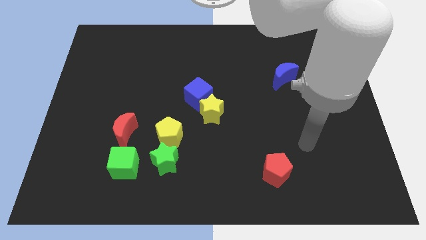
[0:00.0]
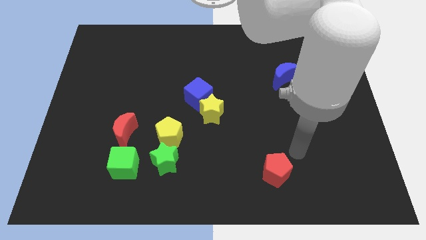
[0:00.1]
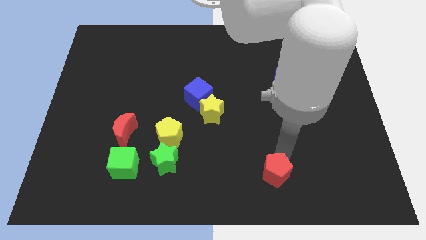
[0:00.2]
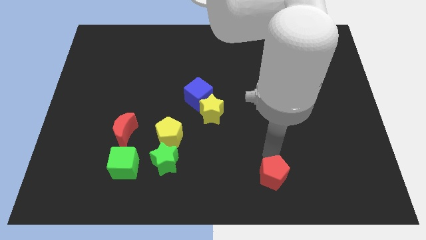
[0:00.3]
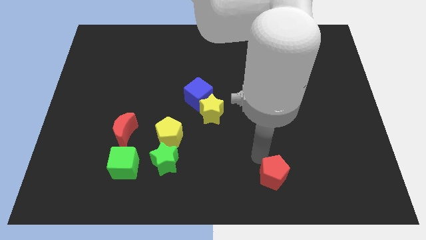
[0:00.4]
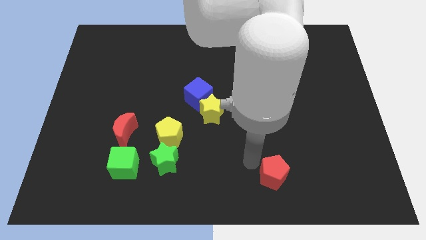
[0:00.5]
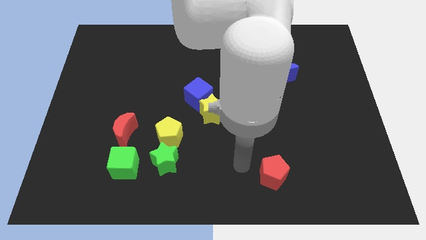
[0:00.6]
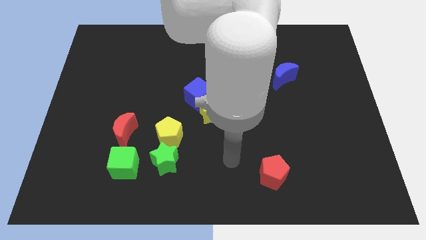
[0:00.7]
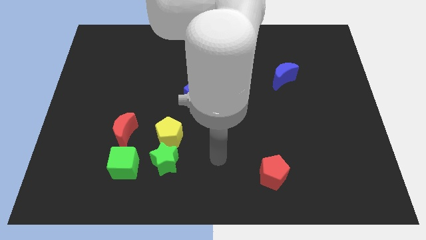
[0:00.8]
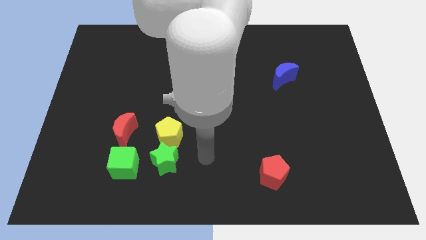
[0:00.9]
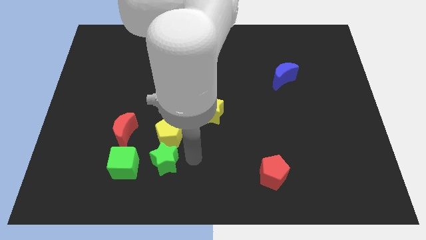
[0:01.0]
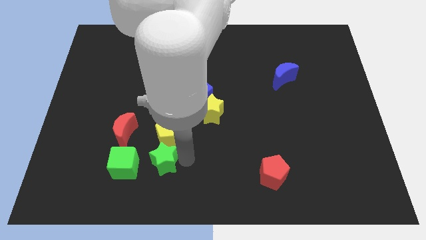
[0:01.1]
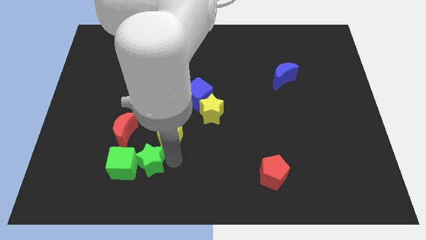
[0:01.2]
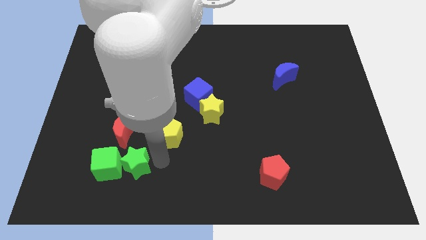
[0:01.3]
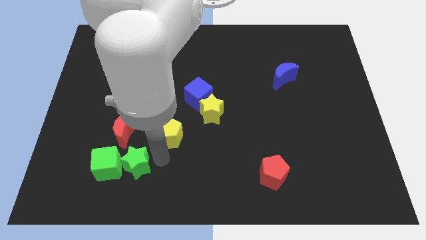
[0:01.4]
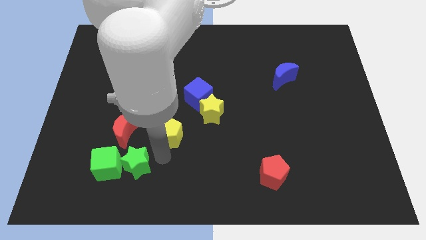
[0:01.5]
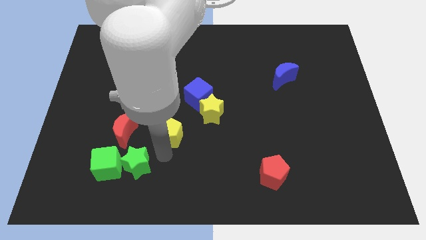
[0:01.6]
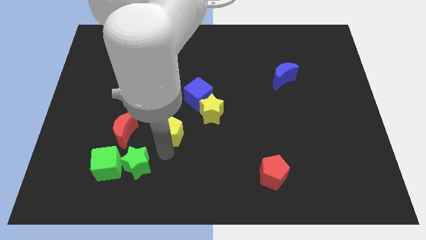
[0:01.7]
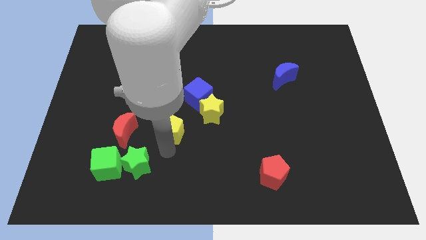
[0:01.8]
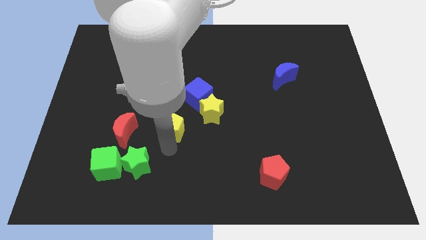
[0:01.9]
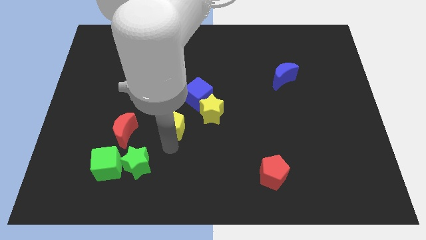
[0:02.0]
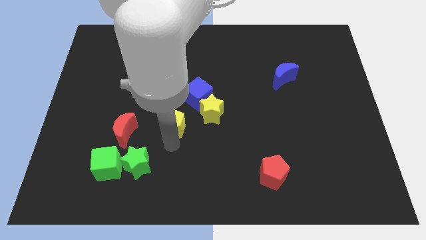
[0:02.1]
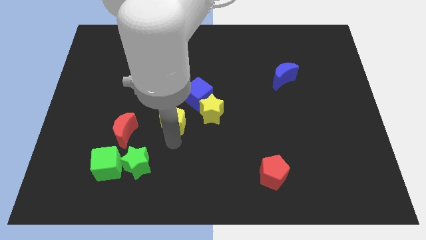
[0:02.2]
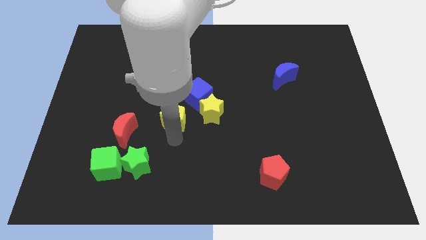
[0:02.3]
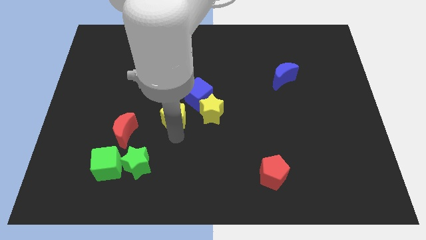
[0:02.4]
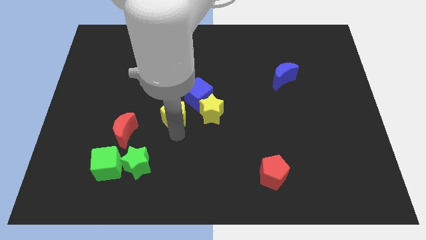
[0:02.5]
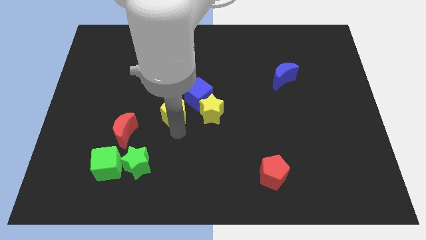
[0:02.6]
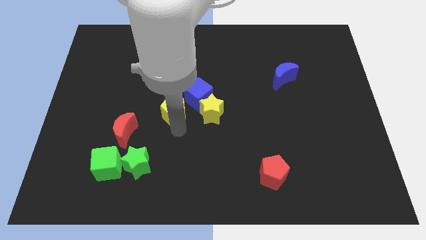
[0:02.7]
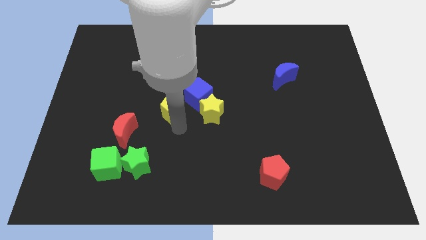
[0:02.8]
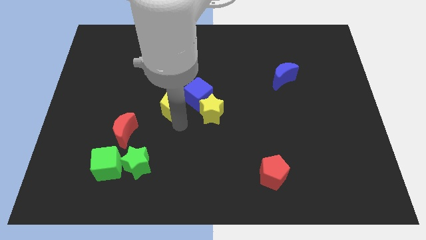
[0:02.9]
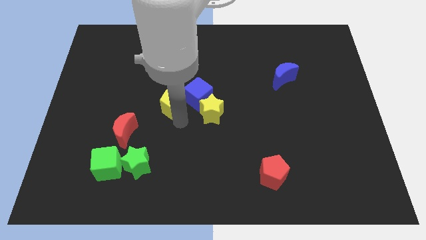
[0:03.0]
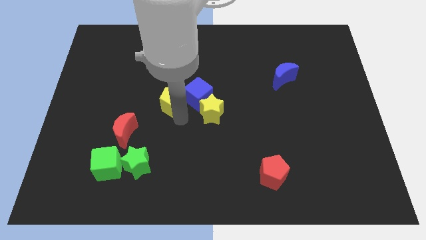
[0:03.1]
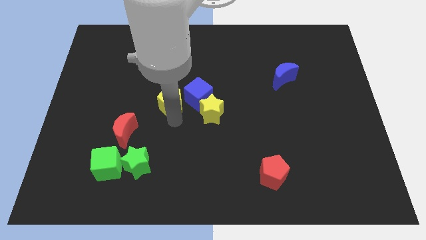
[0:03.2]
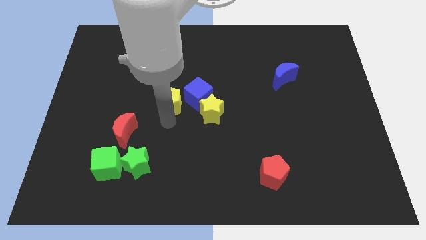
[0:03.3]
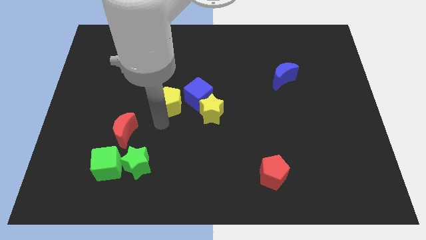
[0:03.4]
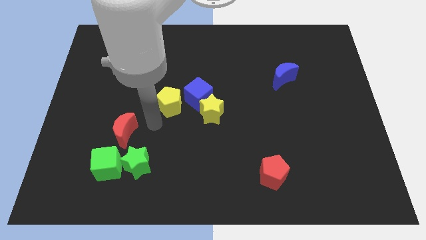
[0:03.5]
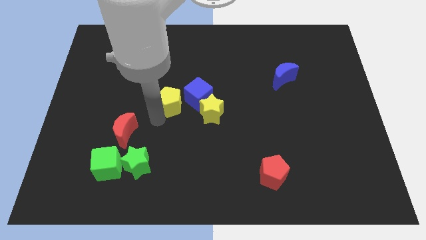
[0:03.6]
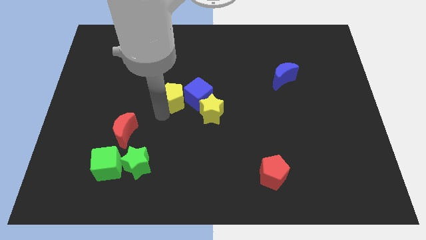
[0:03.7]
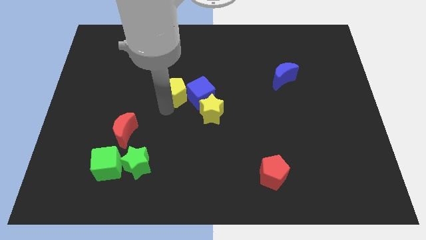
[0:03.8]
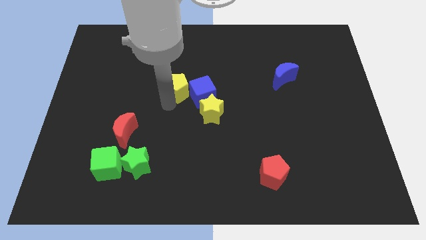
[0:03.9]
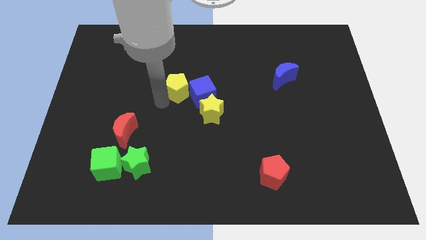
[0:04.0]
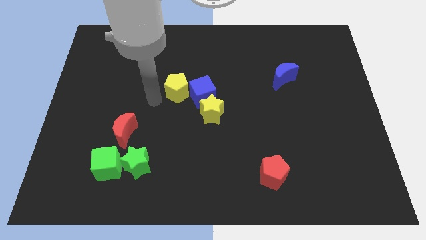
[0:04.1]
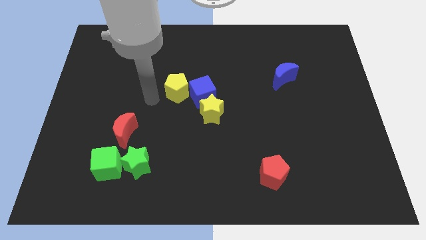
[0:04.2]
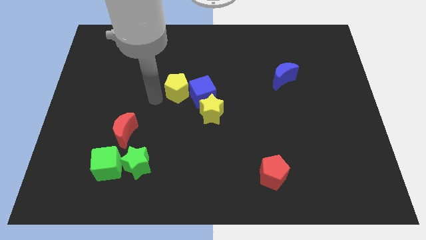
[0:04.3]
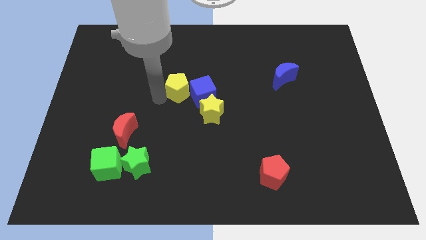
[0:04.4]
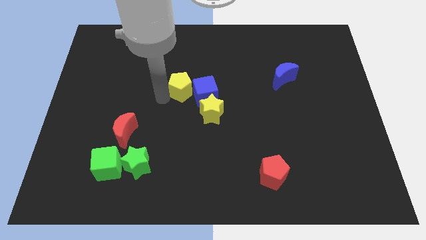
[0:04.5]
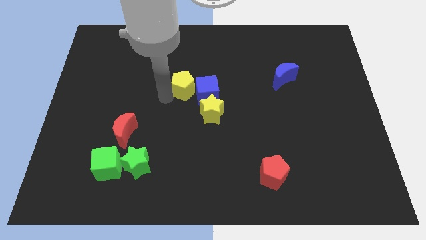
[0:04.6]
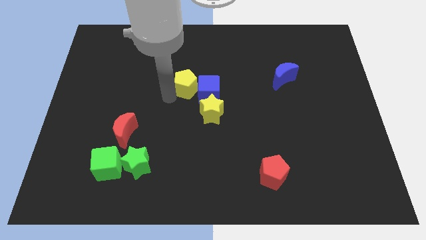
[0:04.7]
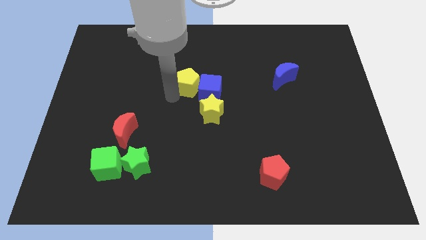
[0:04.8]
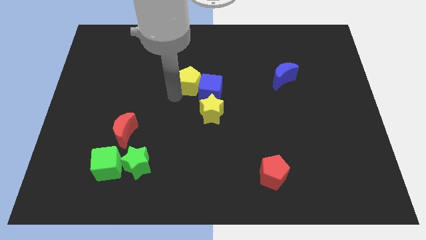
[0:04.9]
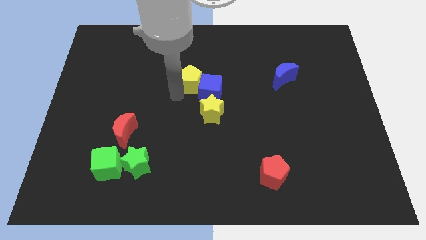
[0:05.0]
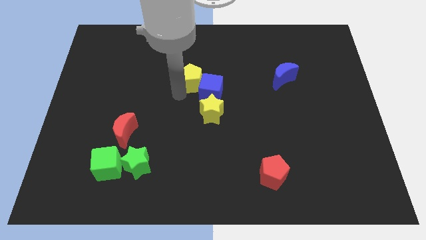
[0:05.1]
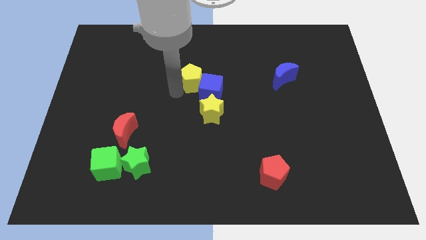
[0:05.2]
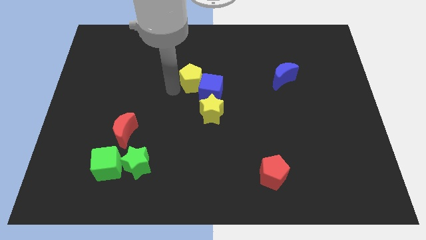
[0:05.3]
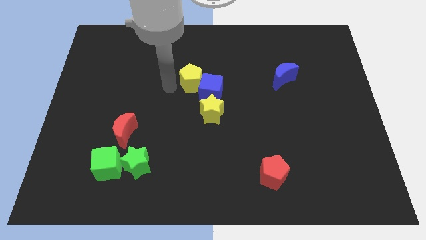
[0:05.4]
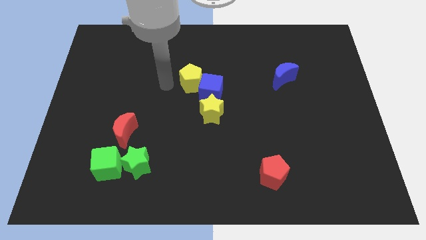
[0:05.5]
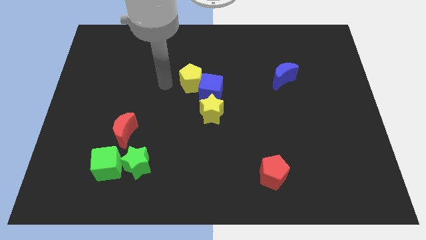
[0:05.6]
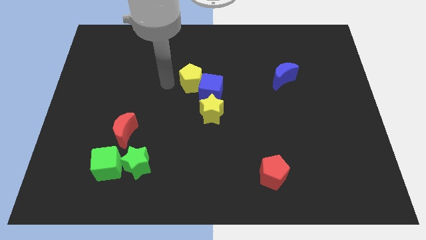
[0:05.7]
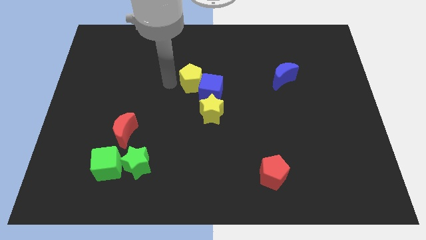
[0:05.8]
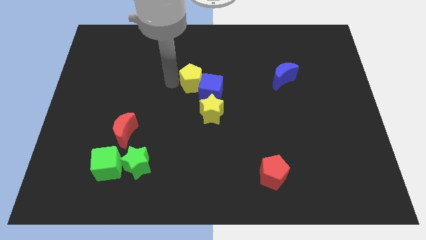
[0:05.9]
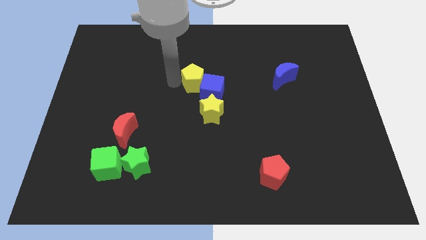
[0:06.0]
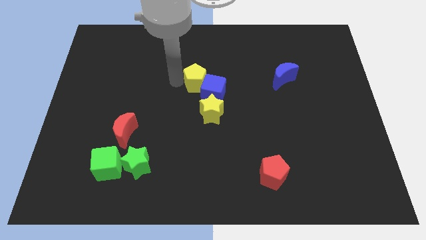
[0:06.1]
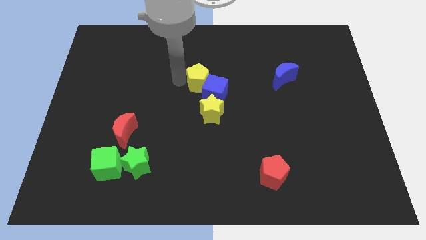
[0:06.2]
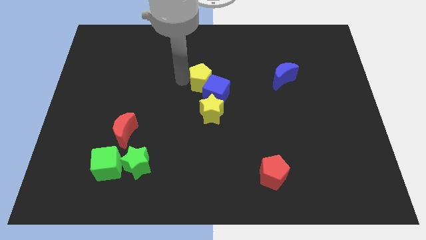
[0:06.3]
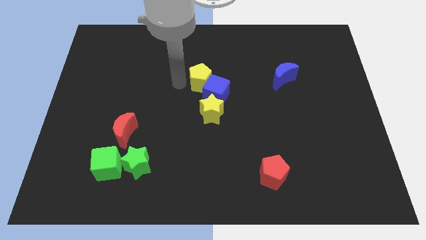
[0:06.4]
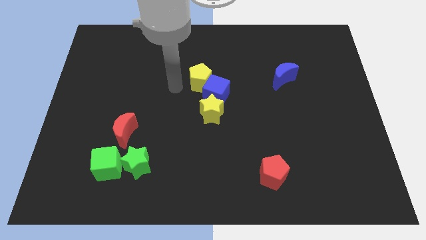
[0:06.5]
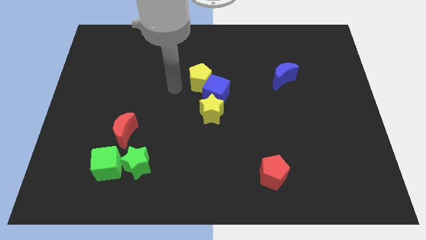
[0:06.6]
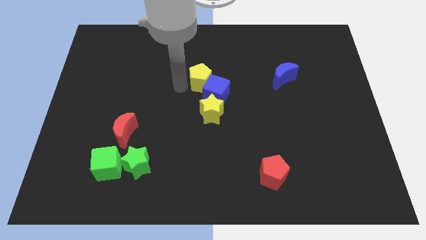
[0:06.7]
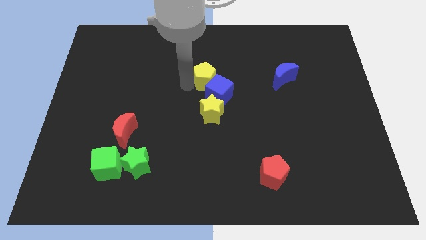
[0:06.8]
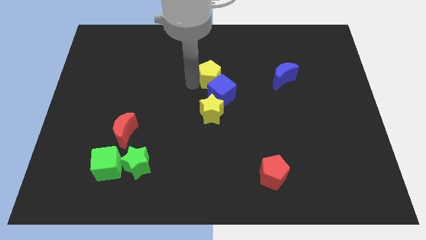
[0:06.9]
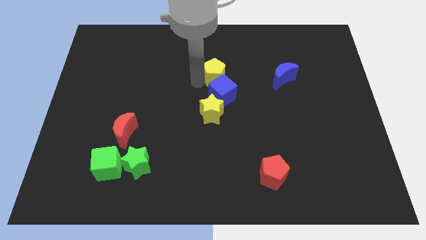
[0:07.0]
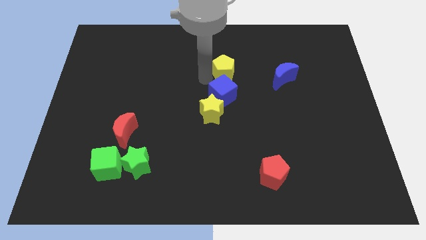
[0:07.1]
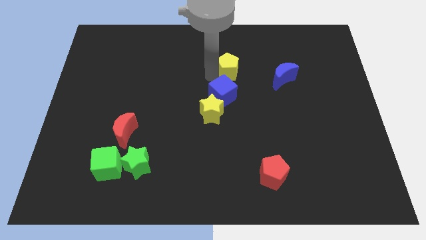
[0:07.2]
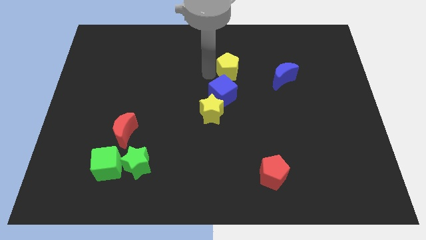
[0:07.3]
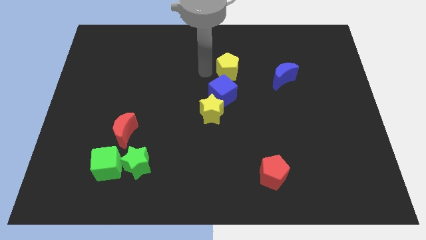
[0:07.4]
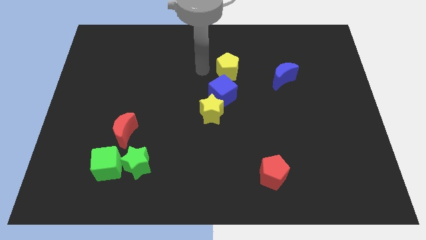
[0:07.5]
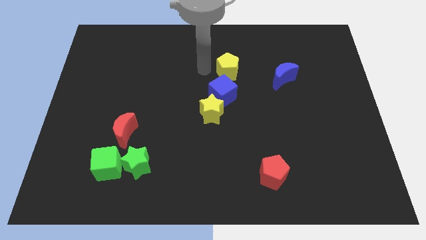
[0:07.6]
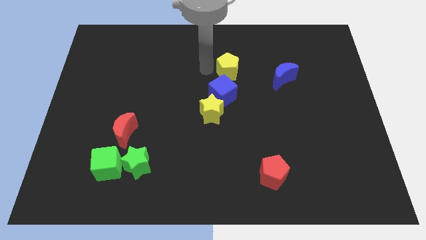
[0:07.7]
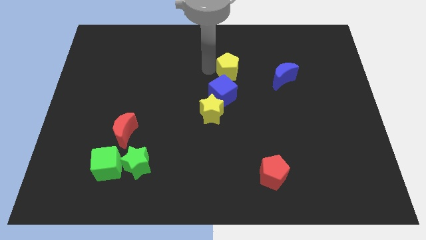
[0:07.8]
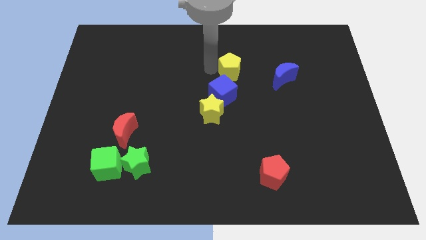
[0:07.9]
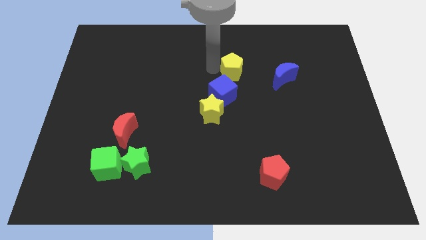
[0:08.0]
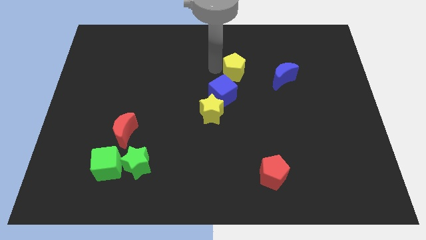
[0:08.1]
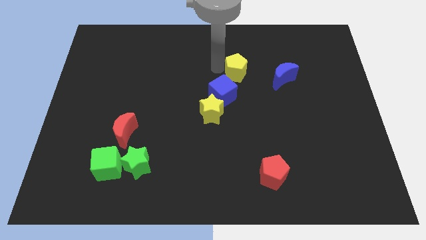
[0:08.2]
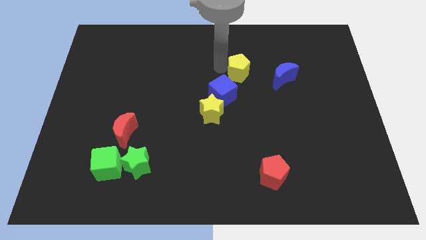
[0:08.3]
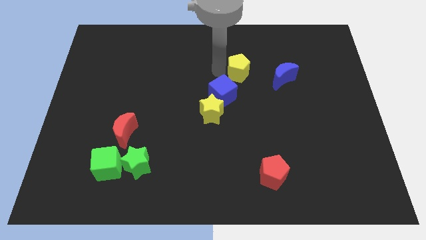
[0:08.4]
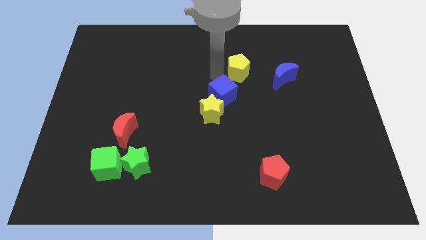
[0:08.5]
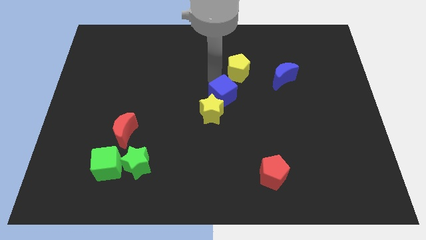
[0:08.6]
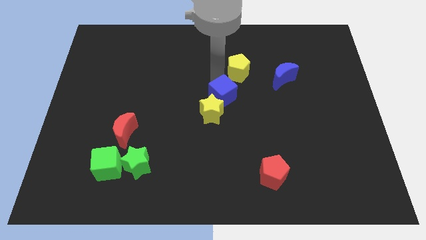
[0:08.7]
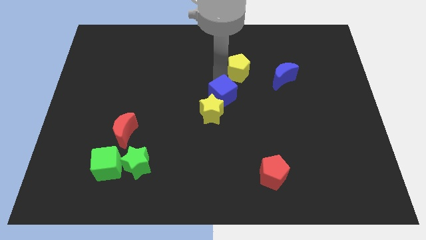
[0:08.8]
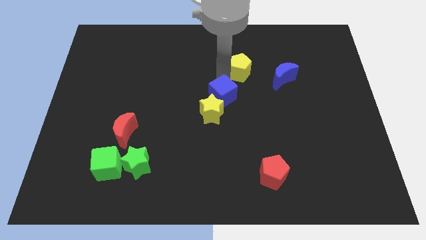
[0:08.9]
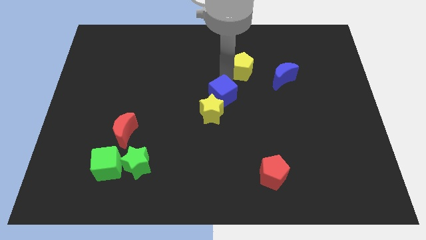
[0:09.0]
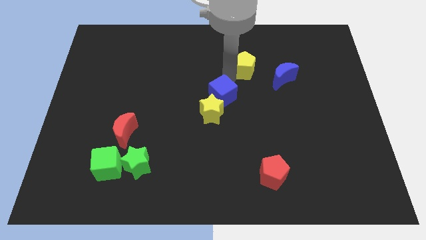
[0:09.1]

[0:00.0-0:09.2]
put the yellow pentagon to the top left side of the blue moon
